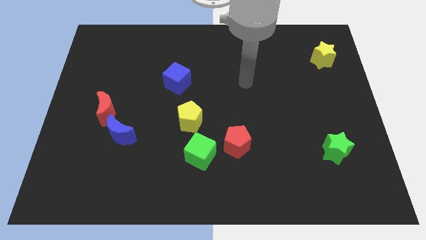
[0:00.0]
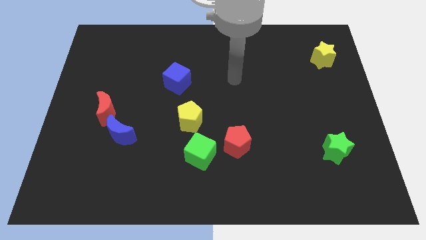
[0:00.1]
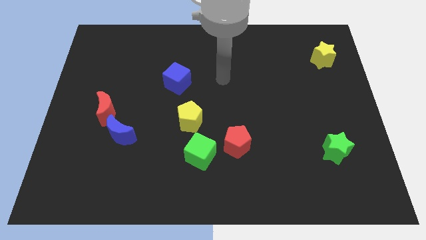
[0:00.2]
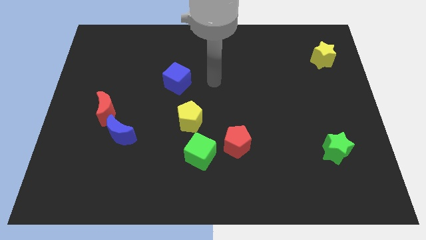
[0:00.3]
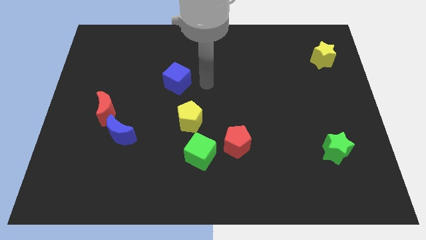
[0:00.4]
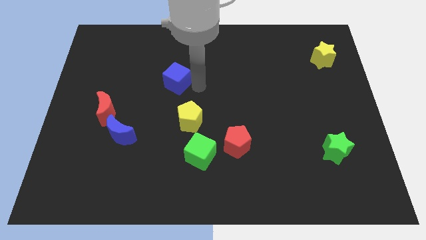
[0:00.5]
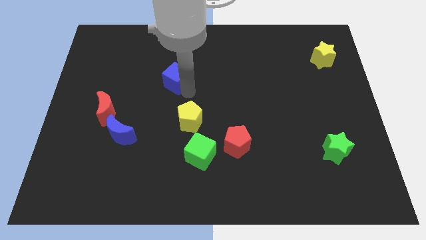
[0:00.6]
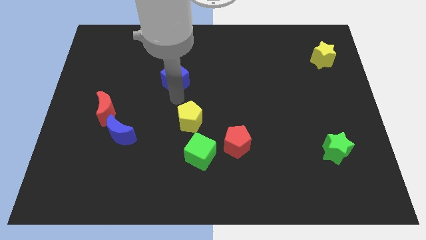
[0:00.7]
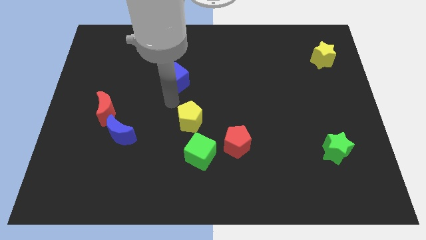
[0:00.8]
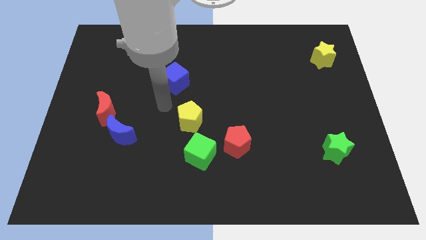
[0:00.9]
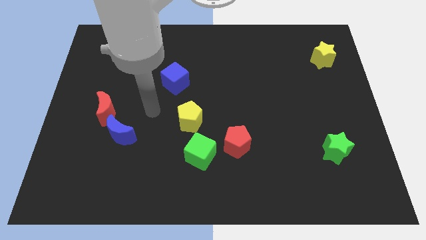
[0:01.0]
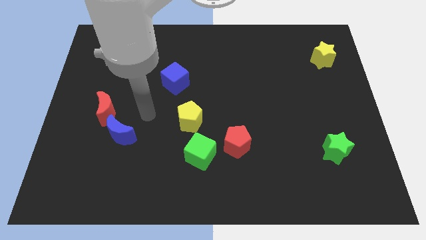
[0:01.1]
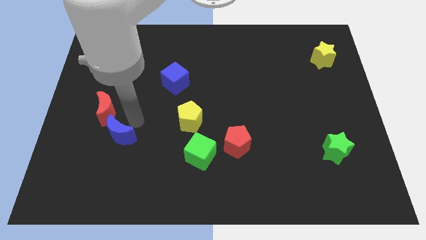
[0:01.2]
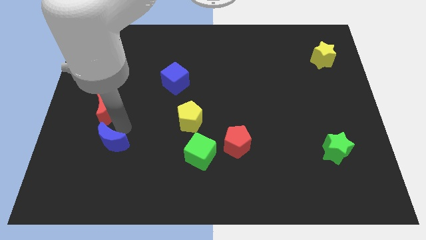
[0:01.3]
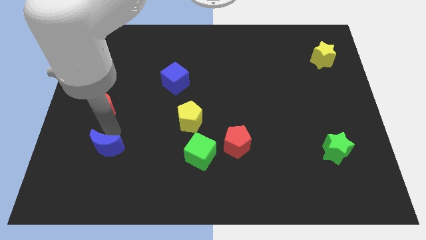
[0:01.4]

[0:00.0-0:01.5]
move the red moon away from the blue moon

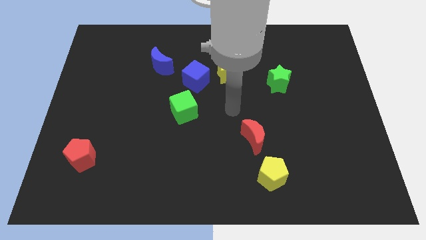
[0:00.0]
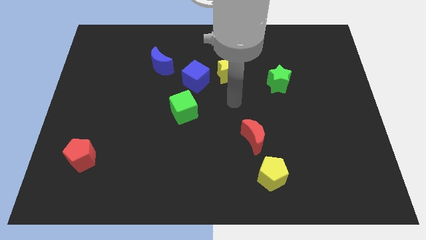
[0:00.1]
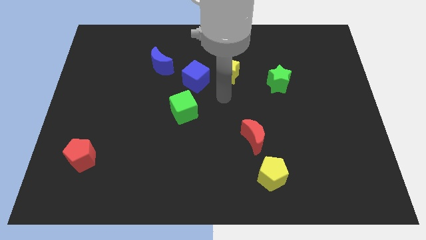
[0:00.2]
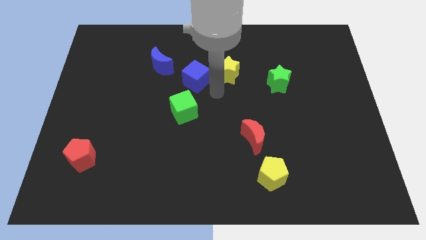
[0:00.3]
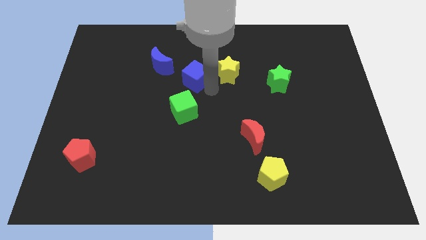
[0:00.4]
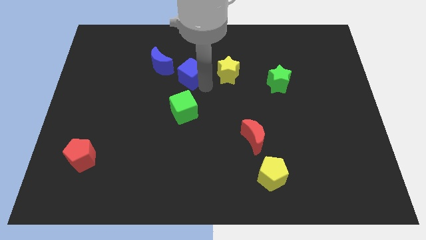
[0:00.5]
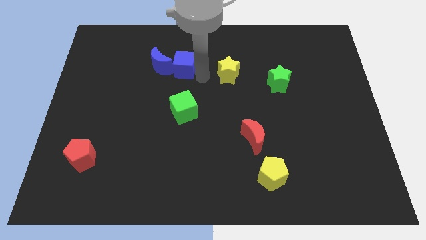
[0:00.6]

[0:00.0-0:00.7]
separate the yellow star from the blue cube

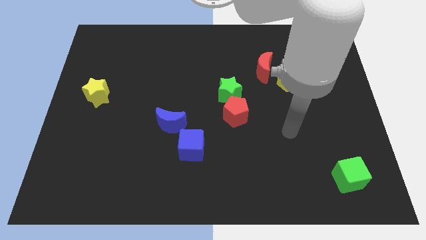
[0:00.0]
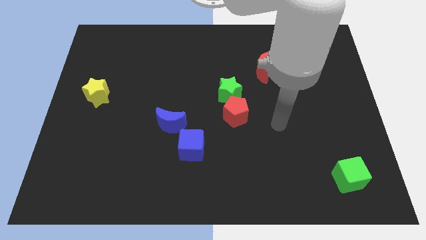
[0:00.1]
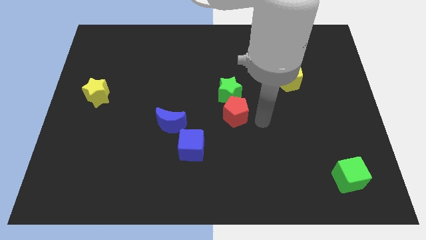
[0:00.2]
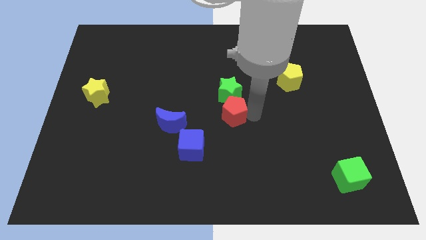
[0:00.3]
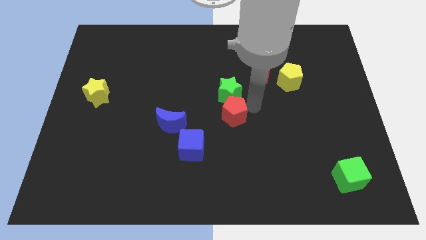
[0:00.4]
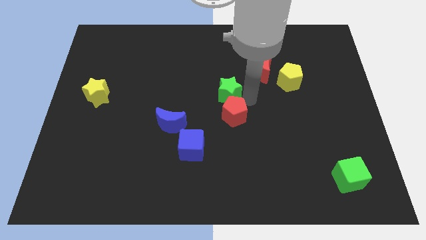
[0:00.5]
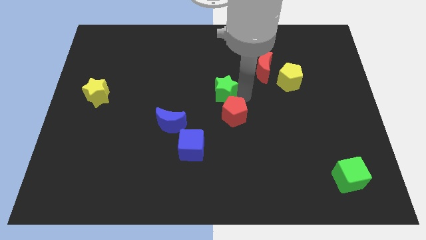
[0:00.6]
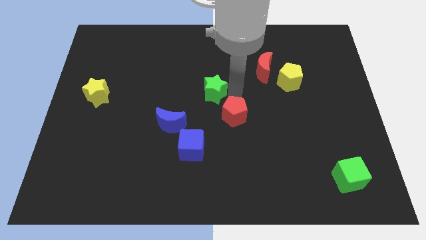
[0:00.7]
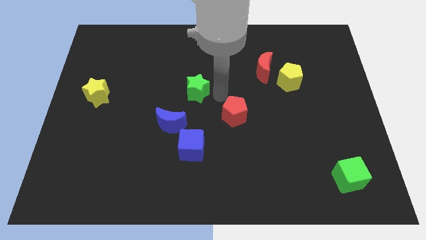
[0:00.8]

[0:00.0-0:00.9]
pull the red pentagon apart from the green star

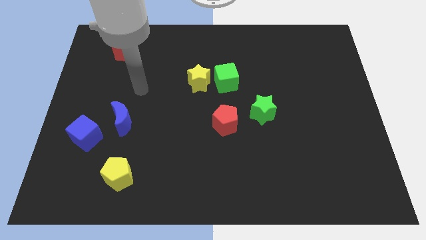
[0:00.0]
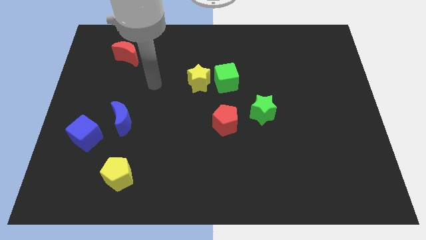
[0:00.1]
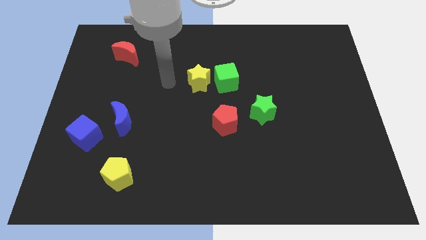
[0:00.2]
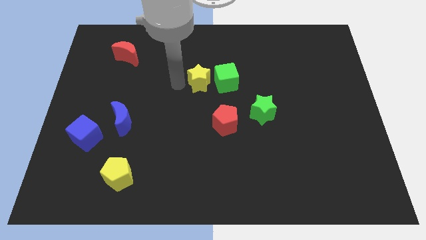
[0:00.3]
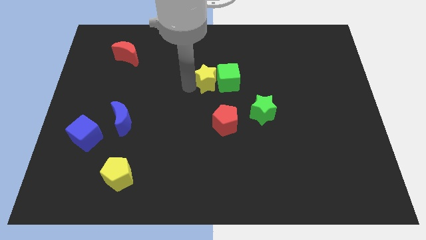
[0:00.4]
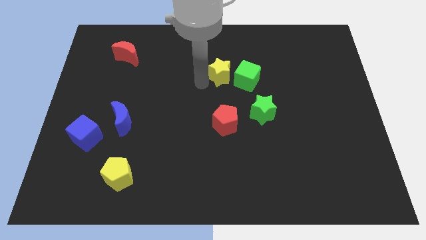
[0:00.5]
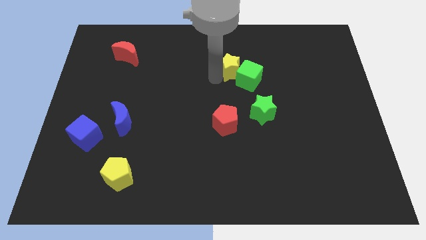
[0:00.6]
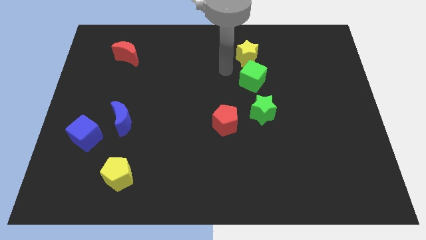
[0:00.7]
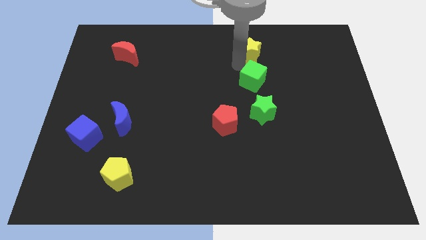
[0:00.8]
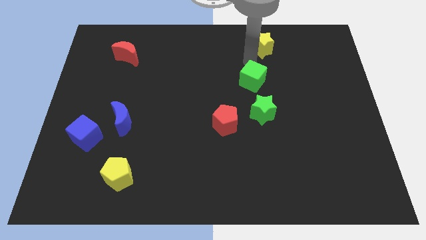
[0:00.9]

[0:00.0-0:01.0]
move the green cube away from the yellow star

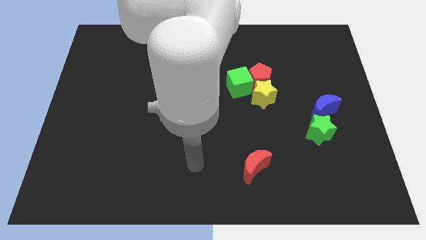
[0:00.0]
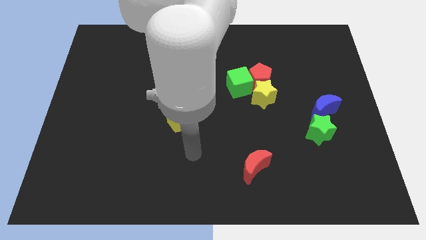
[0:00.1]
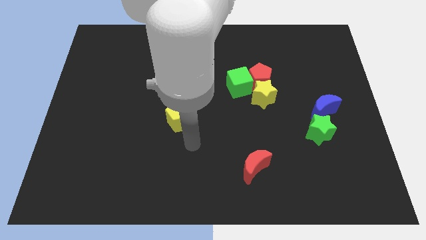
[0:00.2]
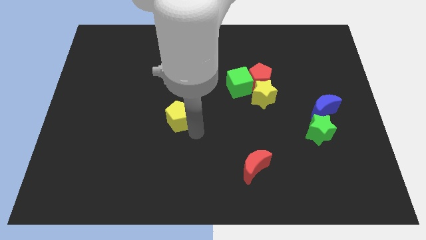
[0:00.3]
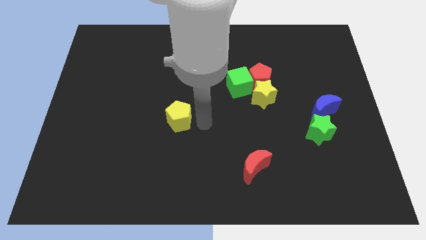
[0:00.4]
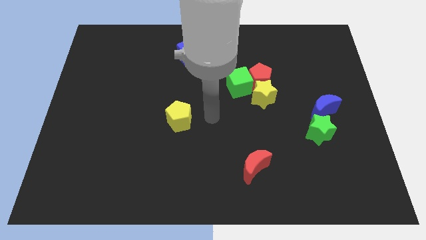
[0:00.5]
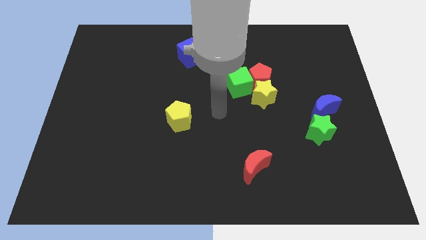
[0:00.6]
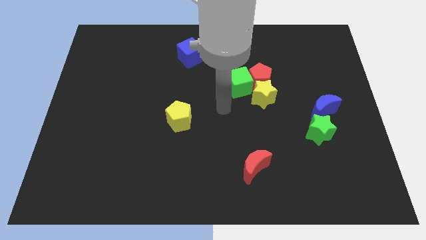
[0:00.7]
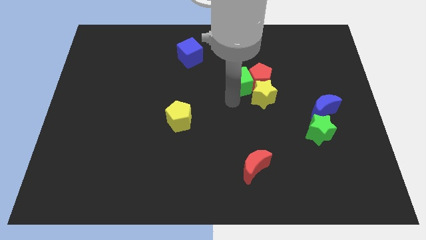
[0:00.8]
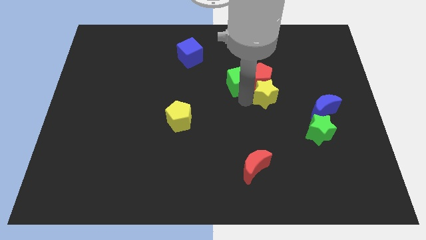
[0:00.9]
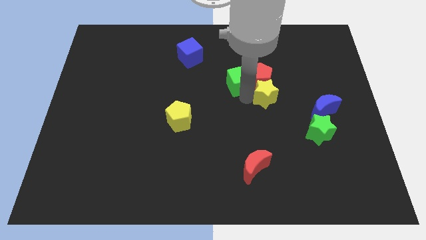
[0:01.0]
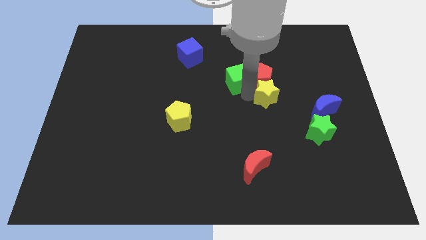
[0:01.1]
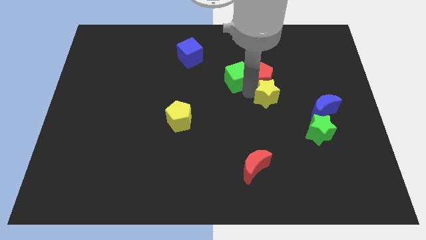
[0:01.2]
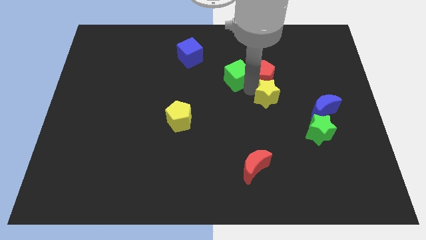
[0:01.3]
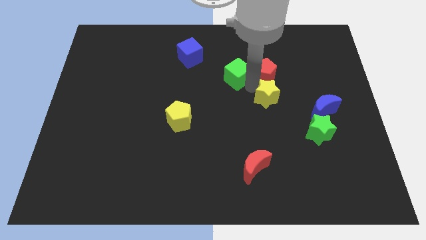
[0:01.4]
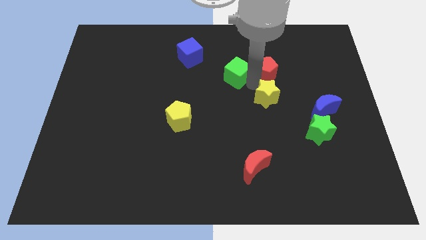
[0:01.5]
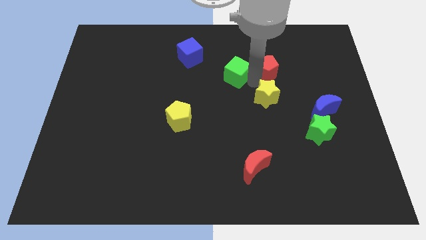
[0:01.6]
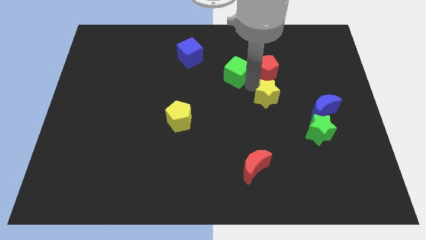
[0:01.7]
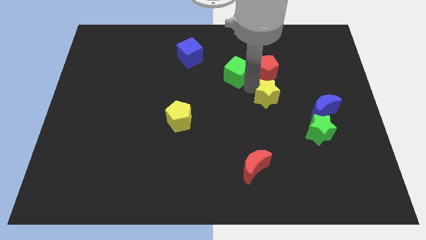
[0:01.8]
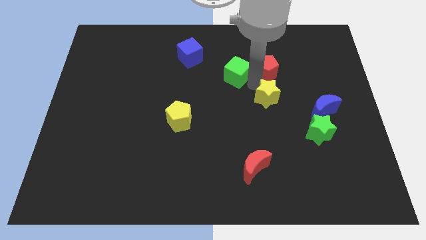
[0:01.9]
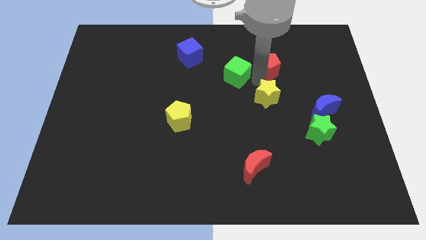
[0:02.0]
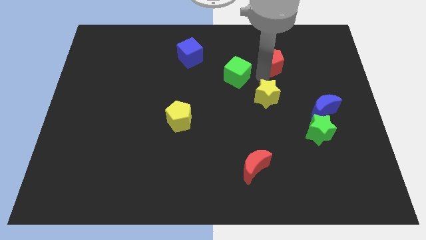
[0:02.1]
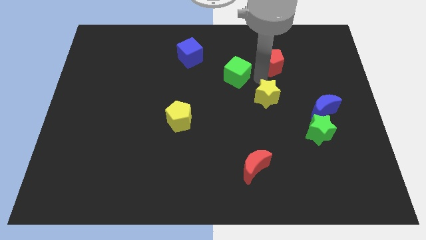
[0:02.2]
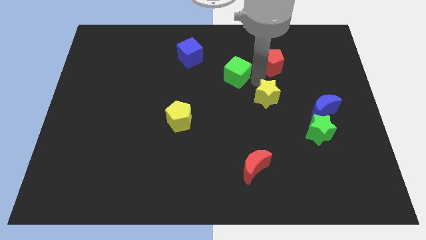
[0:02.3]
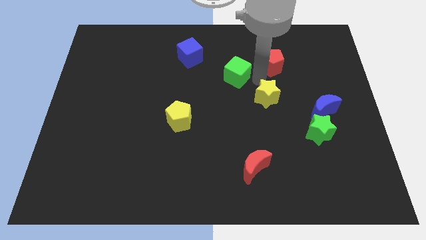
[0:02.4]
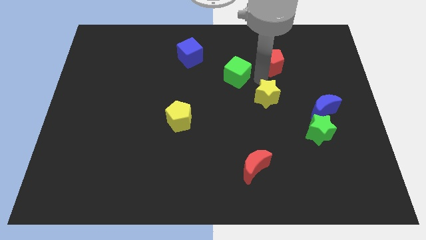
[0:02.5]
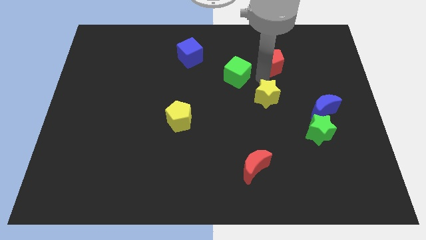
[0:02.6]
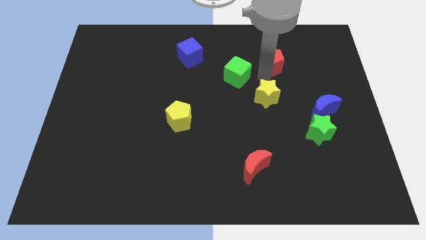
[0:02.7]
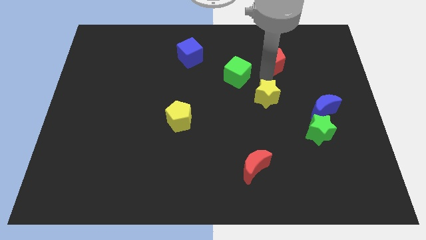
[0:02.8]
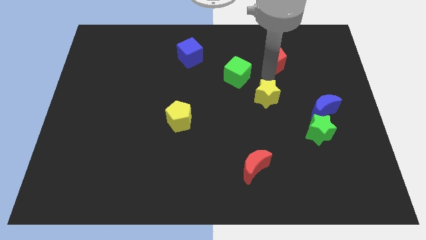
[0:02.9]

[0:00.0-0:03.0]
separate the red pentagon from the yellow star and green cube

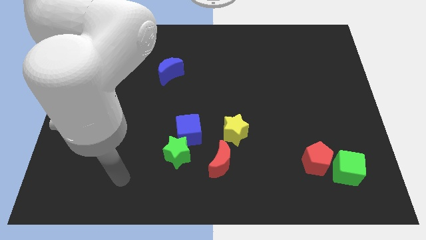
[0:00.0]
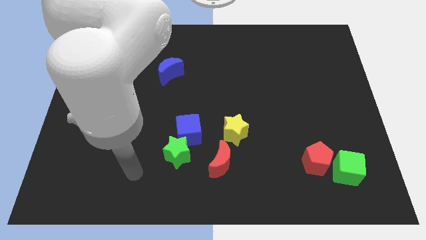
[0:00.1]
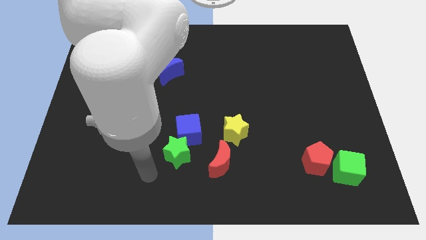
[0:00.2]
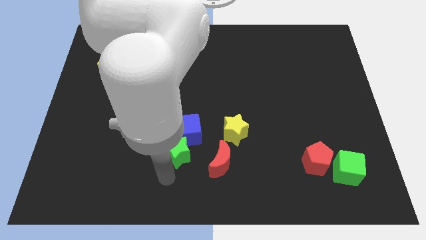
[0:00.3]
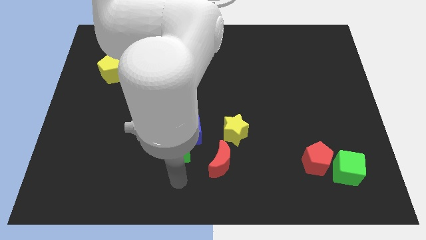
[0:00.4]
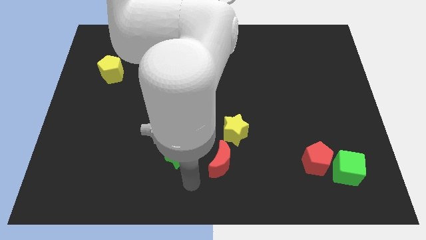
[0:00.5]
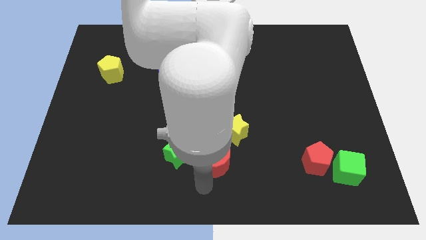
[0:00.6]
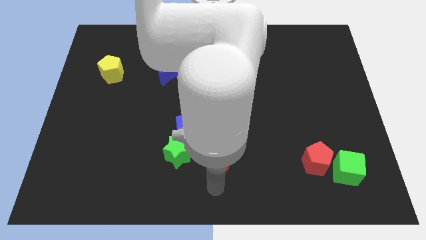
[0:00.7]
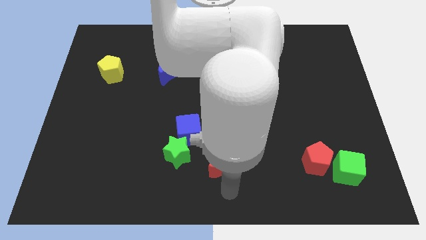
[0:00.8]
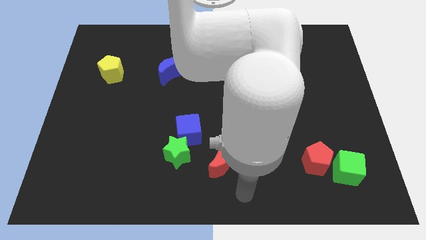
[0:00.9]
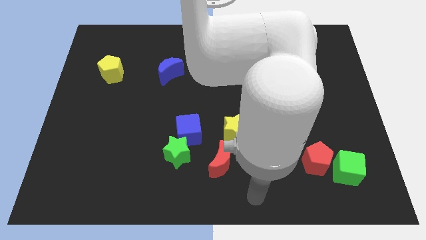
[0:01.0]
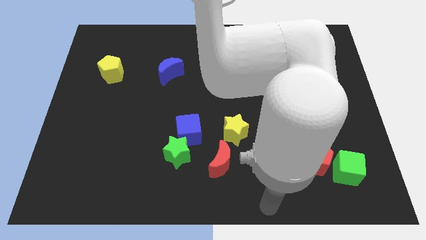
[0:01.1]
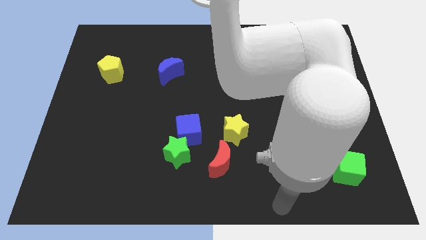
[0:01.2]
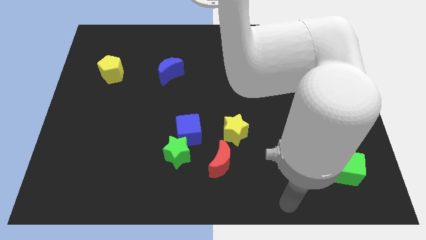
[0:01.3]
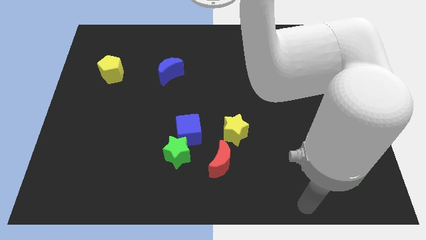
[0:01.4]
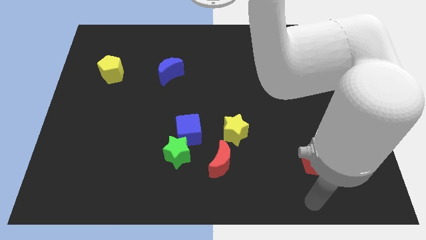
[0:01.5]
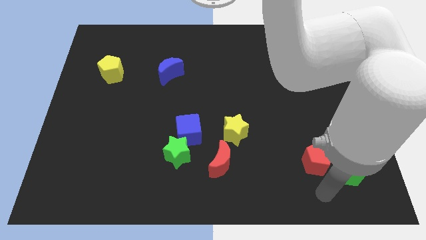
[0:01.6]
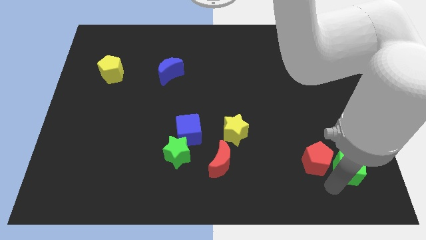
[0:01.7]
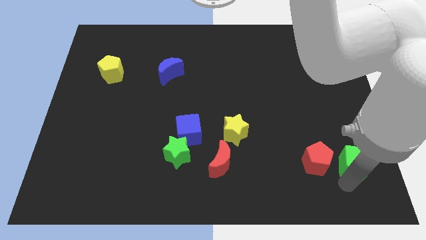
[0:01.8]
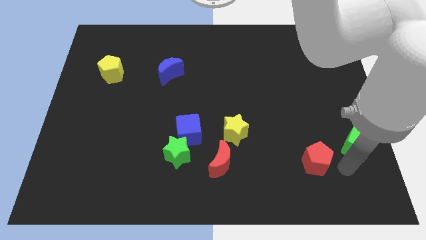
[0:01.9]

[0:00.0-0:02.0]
move the red pentagon away from the green cube

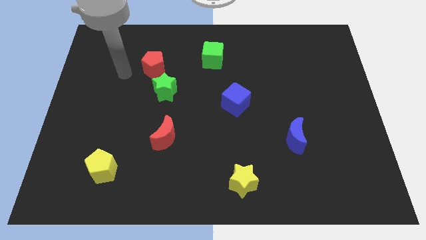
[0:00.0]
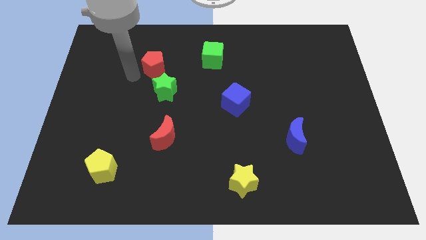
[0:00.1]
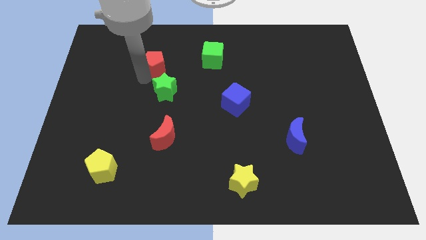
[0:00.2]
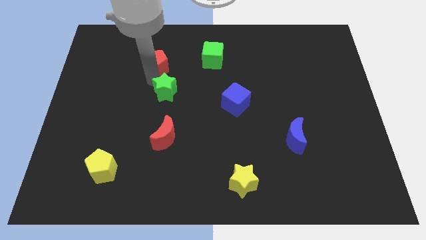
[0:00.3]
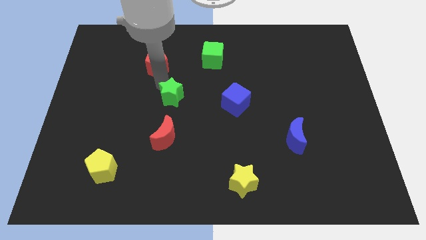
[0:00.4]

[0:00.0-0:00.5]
separate the red pentagon from the green star
